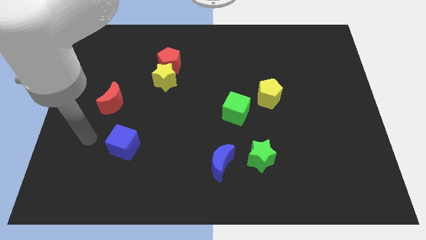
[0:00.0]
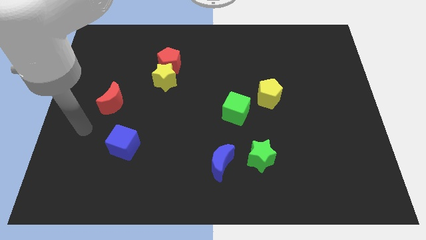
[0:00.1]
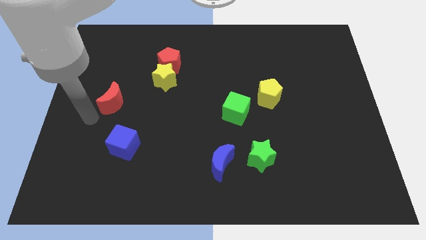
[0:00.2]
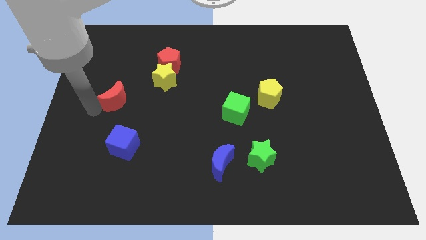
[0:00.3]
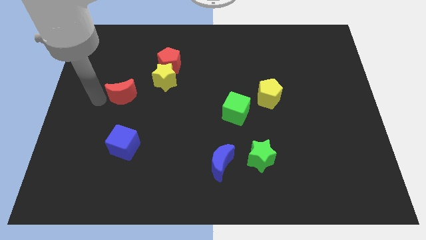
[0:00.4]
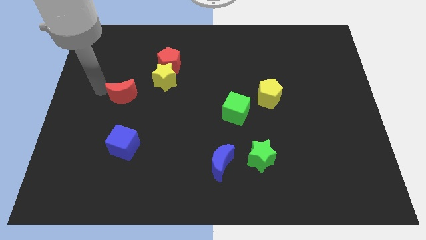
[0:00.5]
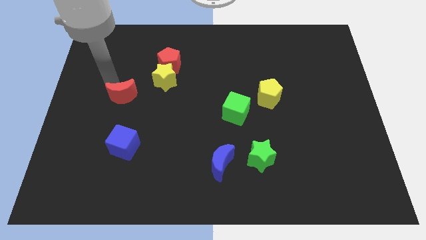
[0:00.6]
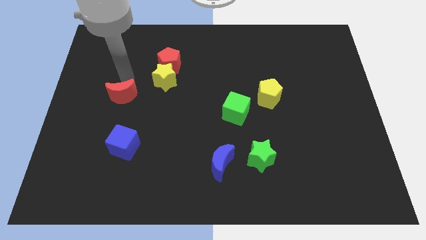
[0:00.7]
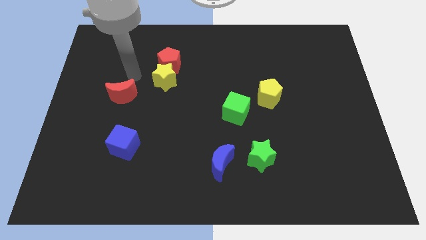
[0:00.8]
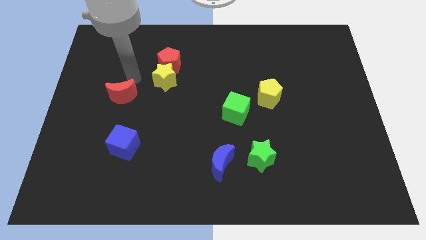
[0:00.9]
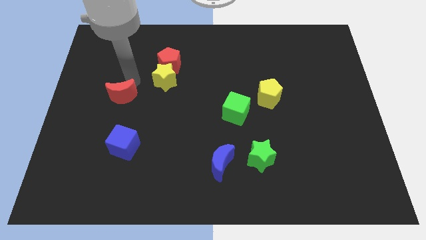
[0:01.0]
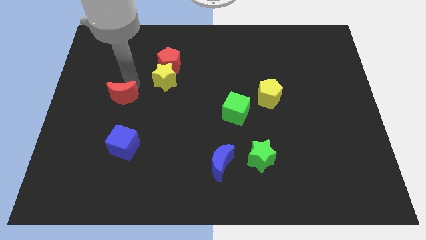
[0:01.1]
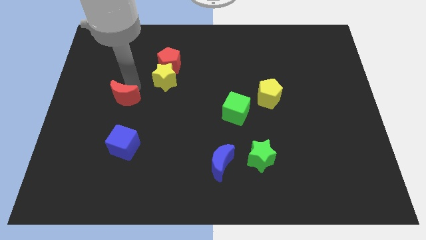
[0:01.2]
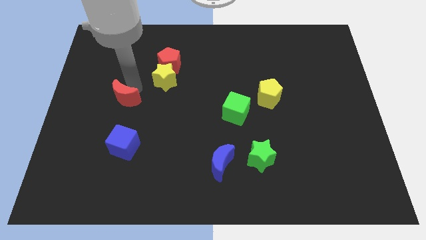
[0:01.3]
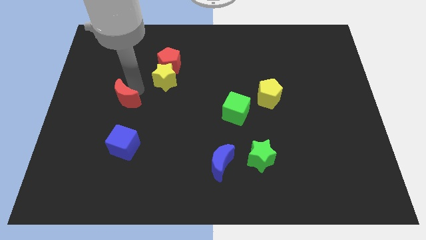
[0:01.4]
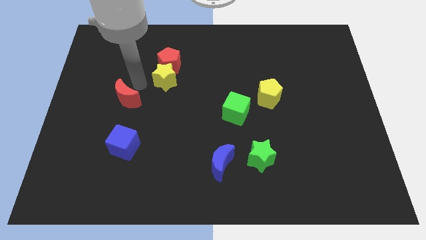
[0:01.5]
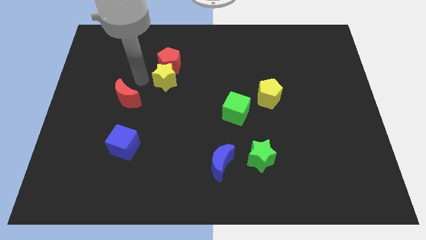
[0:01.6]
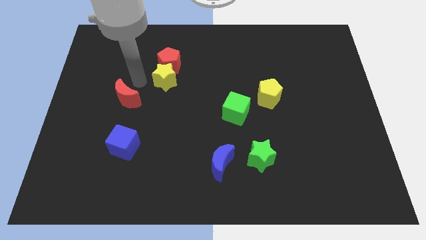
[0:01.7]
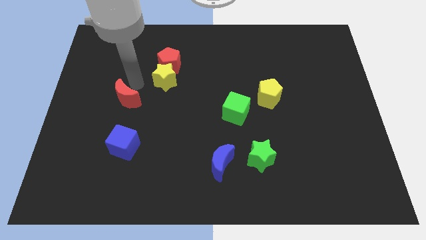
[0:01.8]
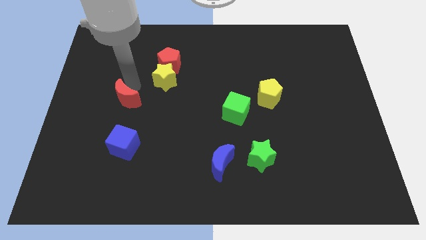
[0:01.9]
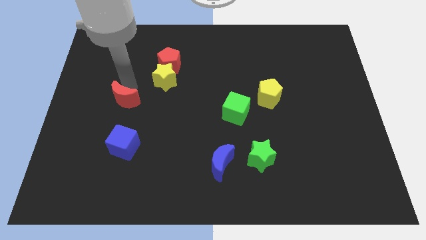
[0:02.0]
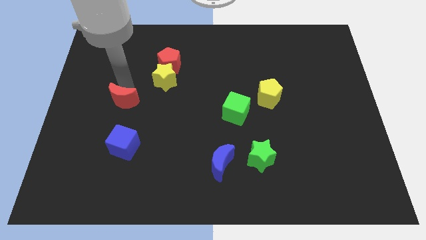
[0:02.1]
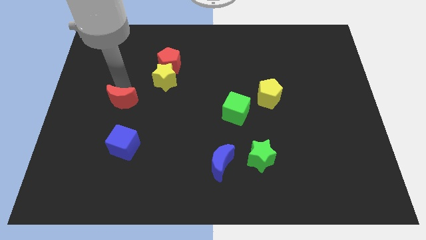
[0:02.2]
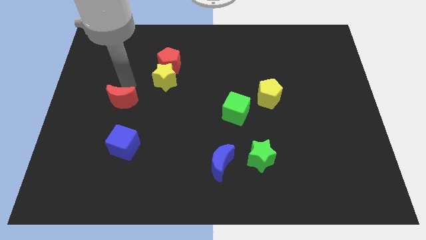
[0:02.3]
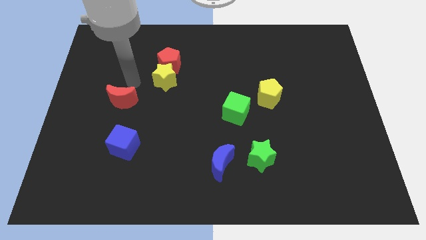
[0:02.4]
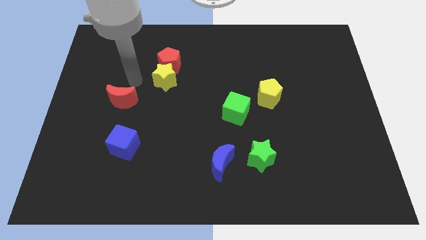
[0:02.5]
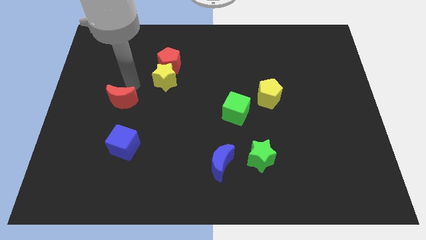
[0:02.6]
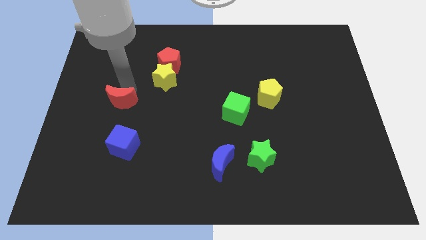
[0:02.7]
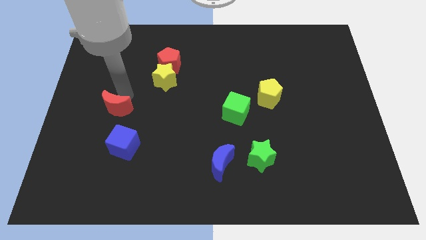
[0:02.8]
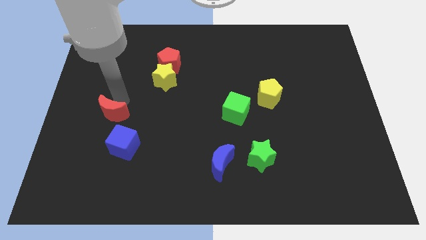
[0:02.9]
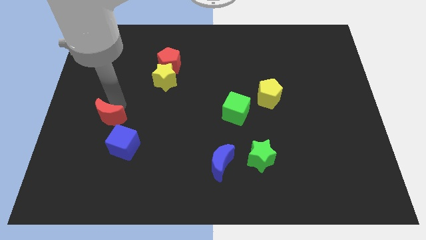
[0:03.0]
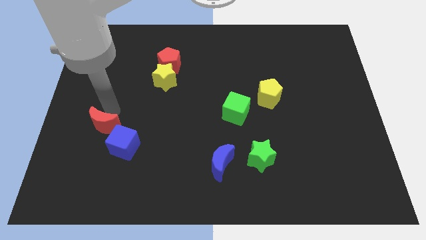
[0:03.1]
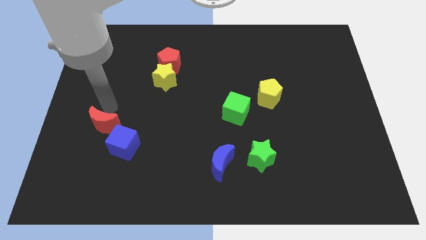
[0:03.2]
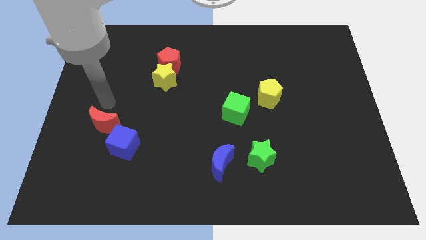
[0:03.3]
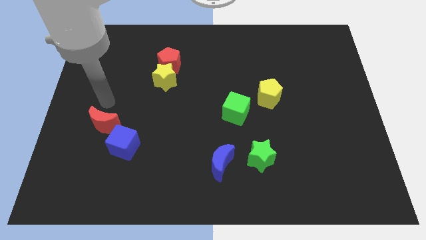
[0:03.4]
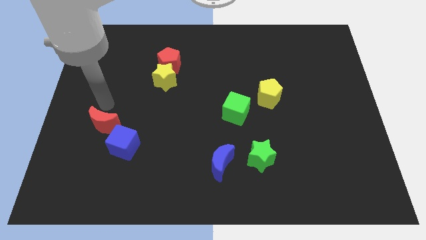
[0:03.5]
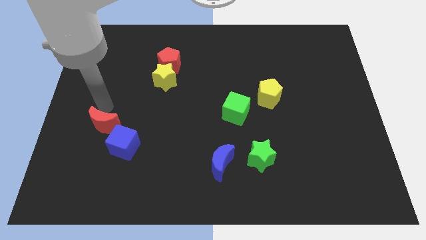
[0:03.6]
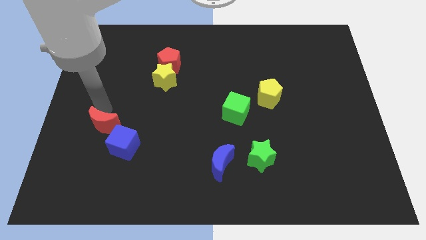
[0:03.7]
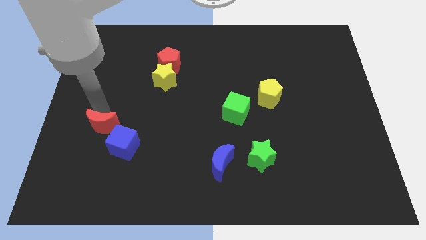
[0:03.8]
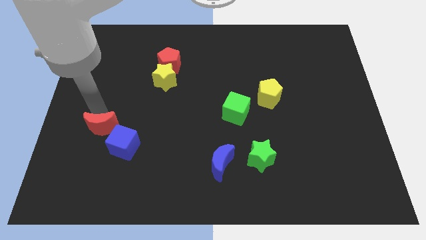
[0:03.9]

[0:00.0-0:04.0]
slightly move the red moon downwards

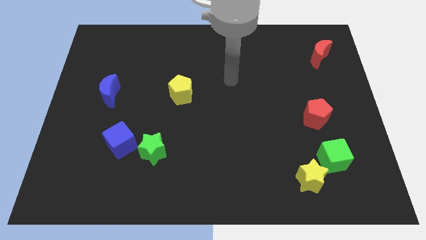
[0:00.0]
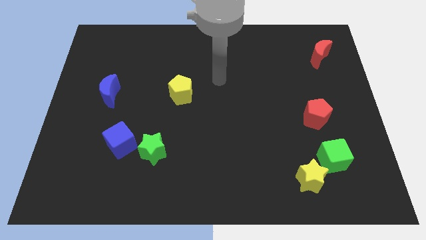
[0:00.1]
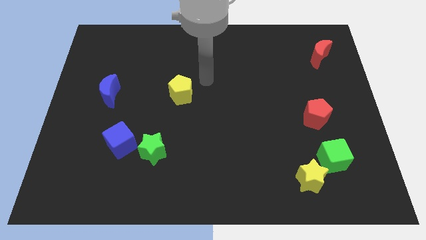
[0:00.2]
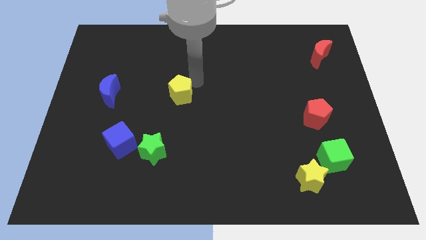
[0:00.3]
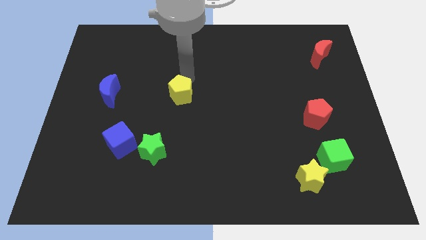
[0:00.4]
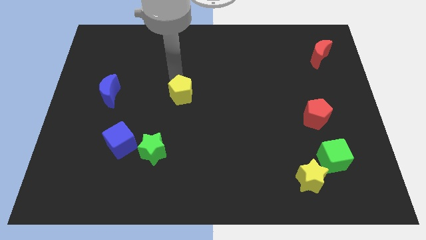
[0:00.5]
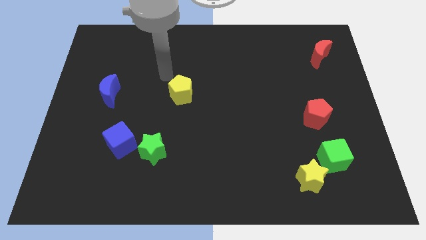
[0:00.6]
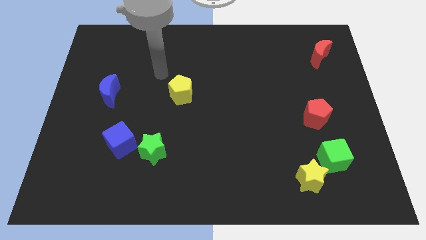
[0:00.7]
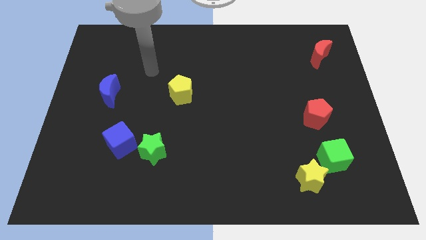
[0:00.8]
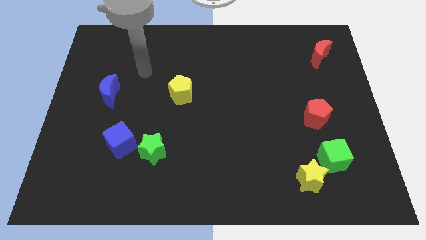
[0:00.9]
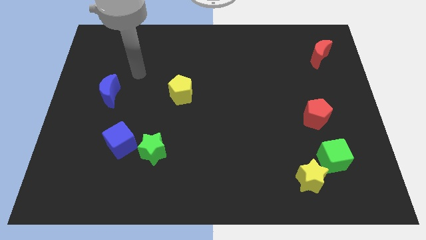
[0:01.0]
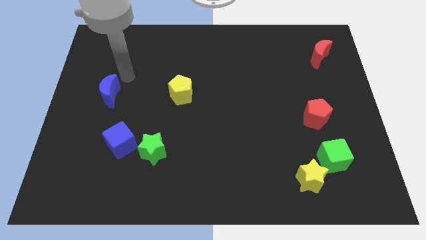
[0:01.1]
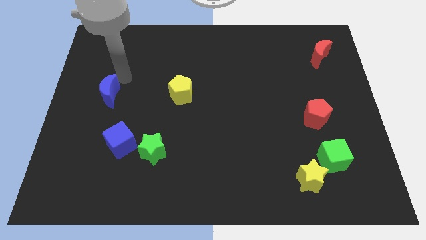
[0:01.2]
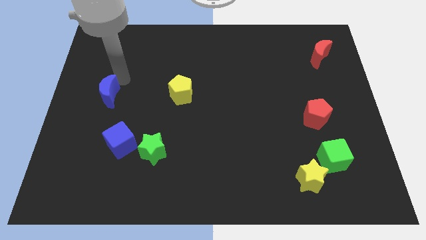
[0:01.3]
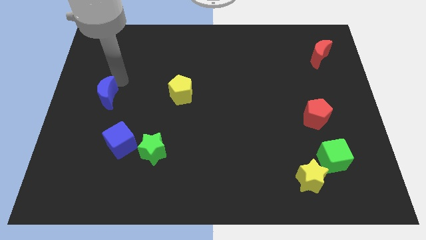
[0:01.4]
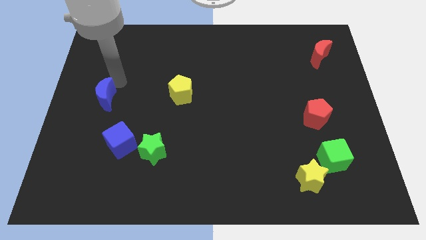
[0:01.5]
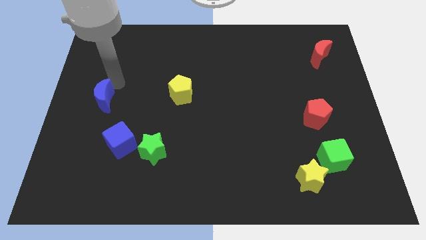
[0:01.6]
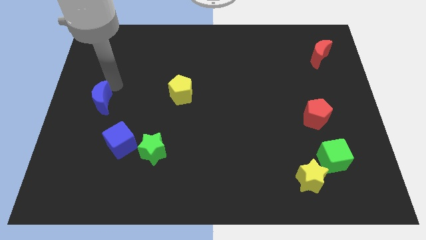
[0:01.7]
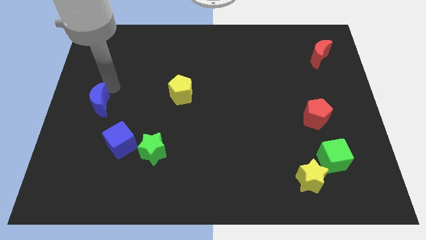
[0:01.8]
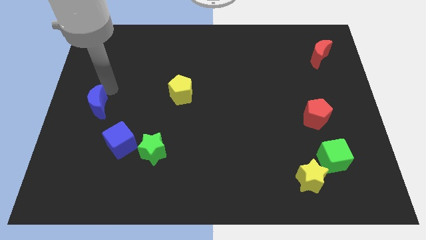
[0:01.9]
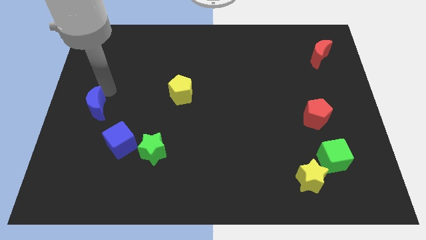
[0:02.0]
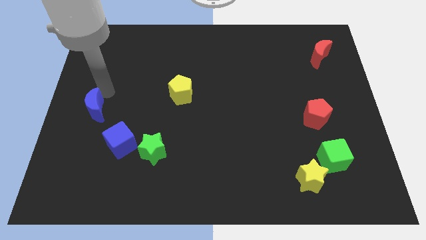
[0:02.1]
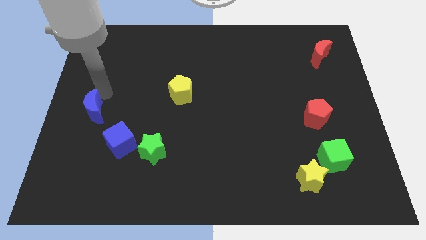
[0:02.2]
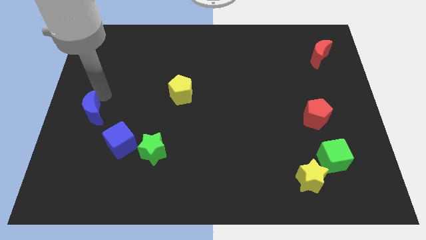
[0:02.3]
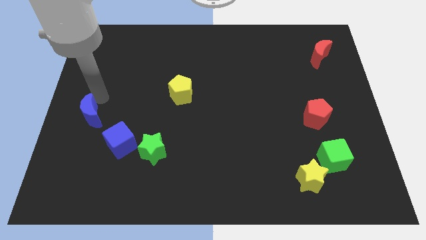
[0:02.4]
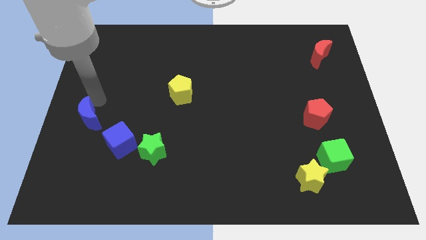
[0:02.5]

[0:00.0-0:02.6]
slide the blue moon slightly downwards

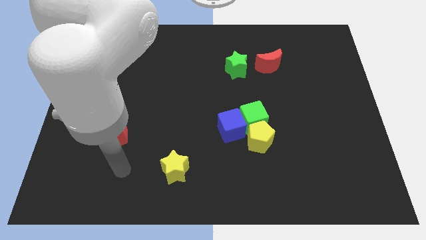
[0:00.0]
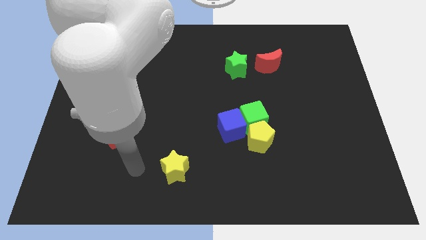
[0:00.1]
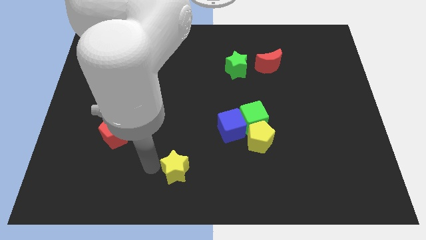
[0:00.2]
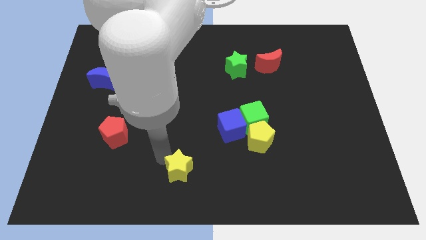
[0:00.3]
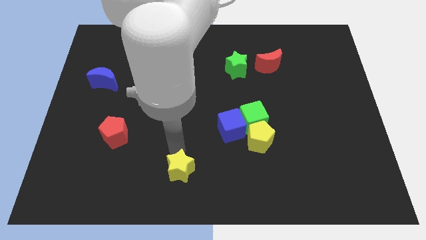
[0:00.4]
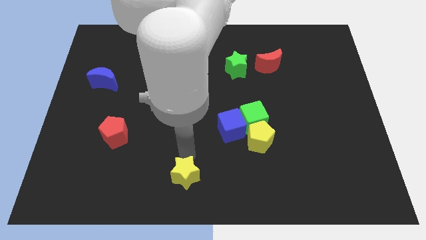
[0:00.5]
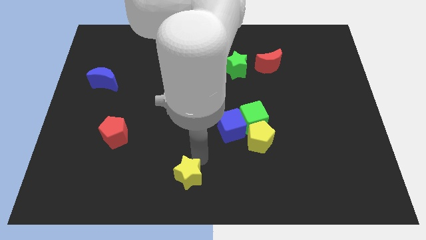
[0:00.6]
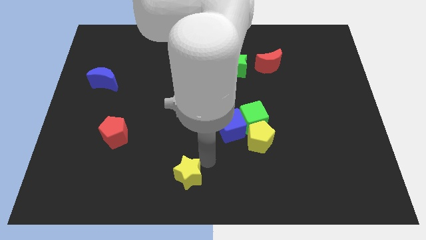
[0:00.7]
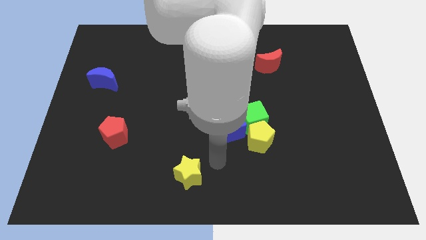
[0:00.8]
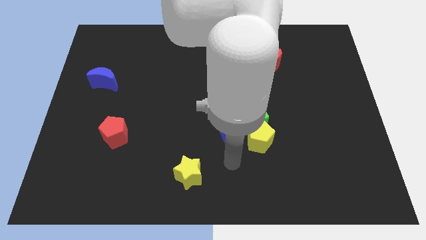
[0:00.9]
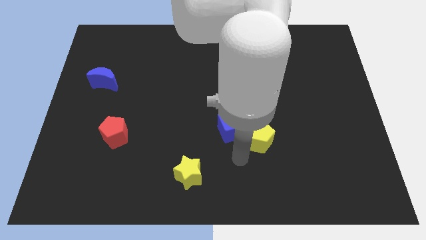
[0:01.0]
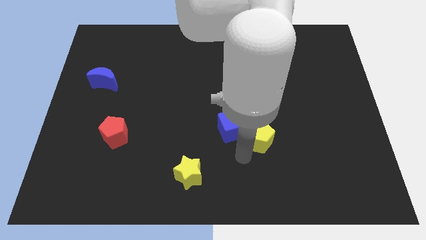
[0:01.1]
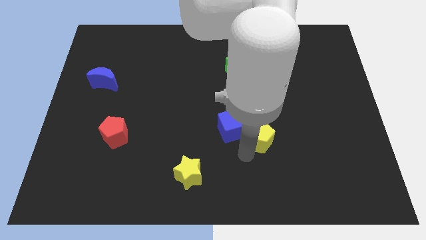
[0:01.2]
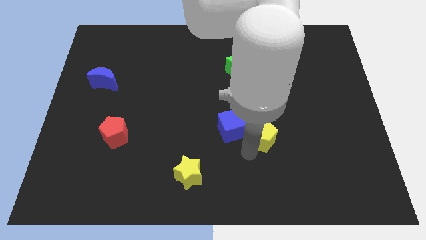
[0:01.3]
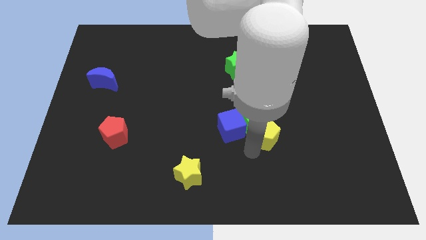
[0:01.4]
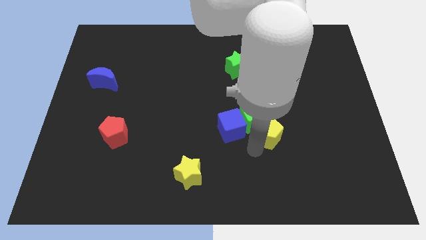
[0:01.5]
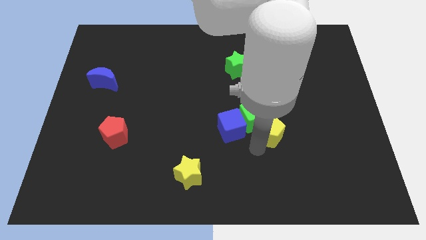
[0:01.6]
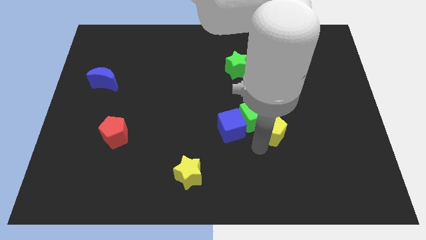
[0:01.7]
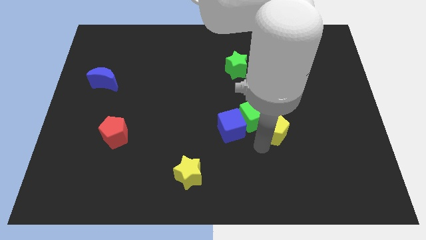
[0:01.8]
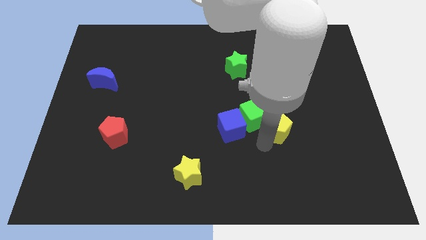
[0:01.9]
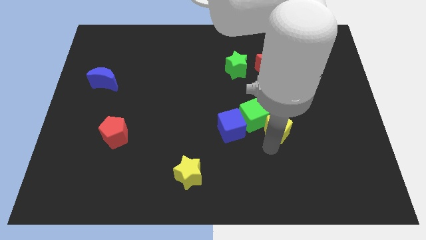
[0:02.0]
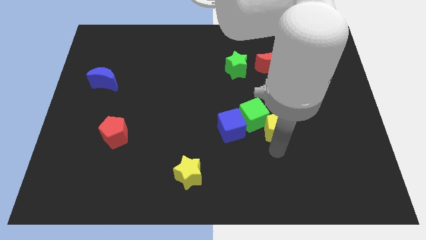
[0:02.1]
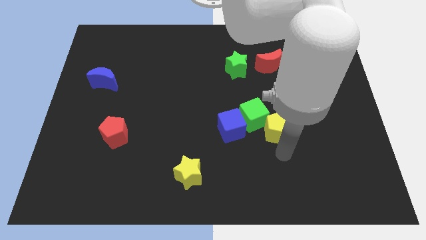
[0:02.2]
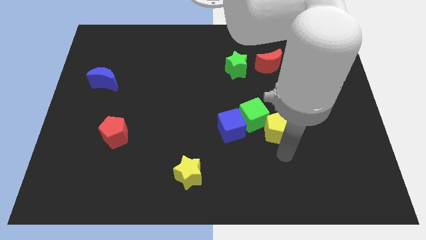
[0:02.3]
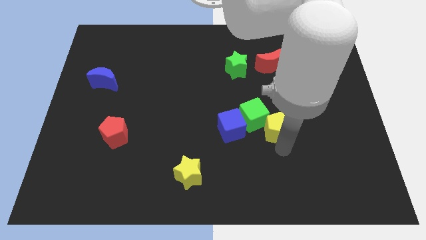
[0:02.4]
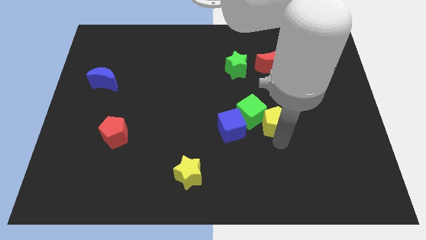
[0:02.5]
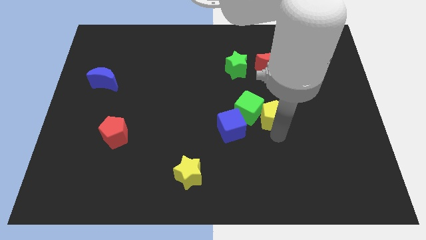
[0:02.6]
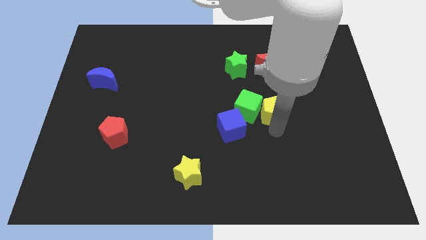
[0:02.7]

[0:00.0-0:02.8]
push the yellow pentagon up a little bit
